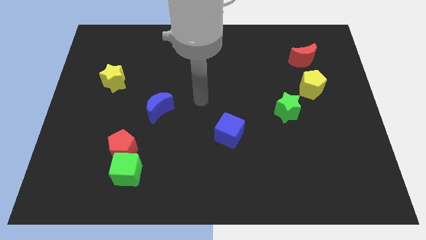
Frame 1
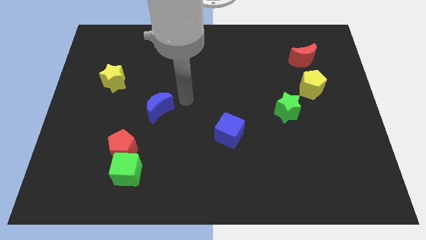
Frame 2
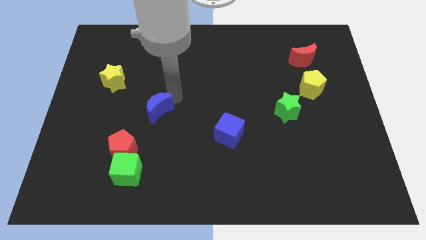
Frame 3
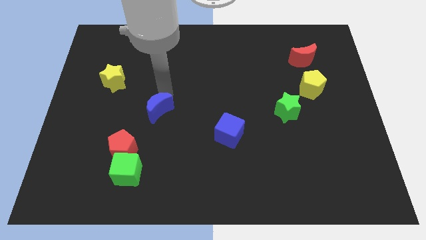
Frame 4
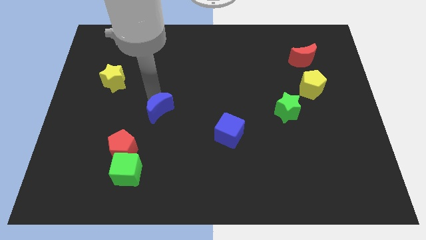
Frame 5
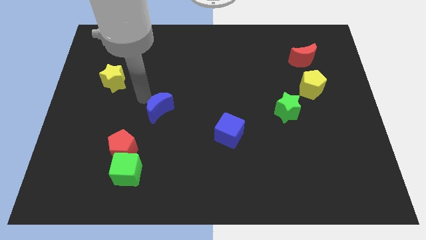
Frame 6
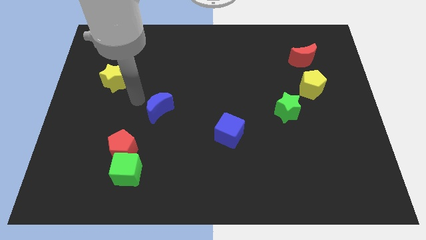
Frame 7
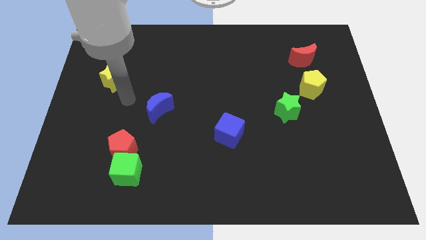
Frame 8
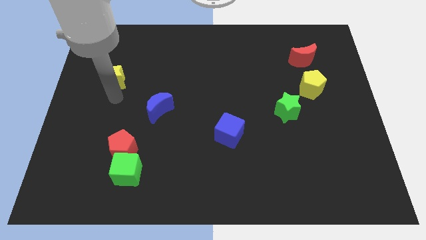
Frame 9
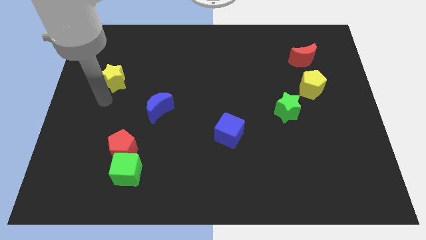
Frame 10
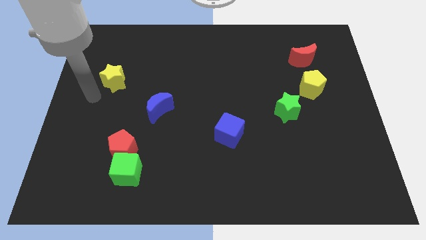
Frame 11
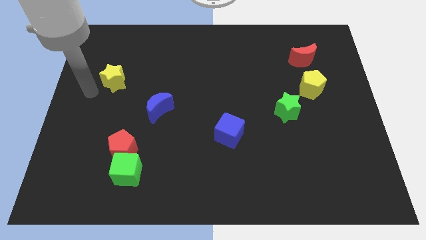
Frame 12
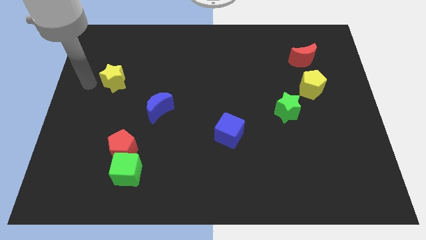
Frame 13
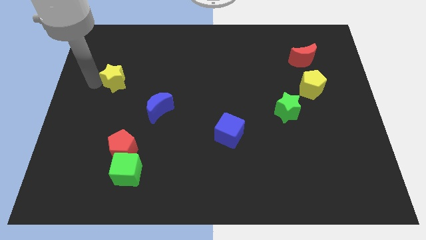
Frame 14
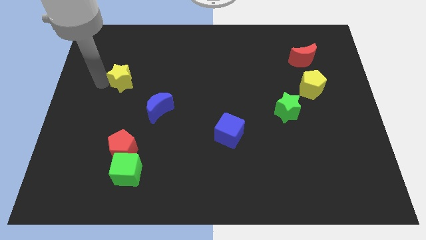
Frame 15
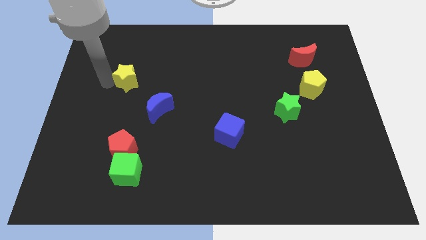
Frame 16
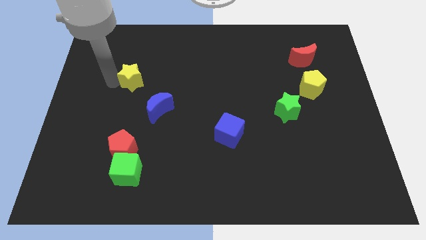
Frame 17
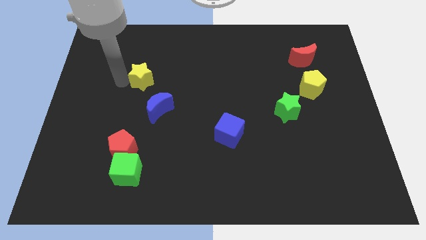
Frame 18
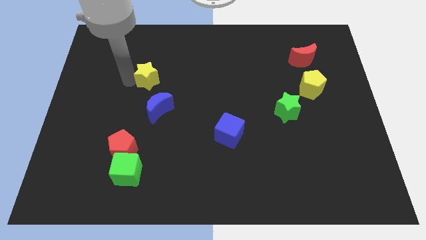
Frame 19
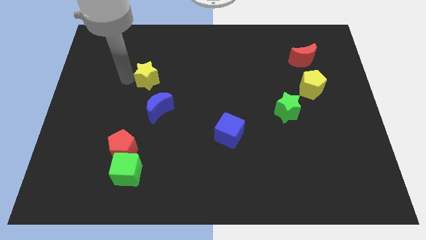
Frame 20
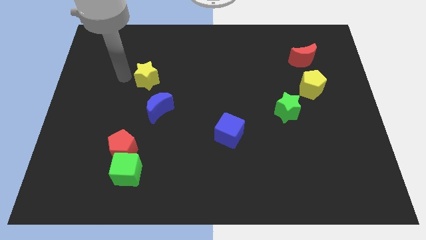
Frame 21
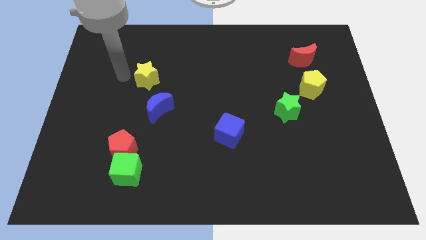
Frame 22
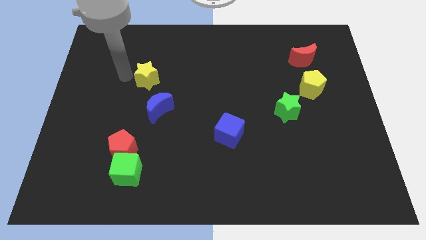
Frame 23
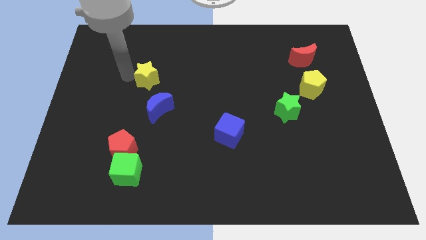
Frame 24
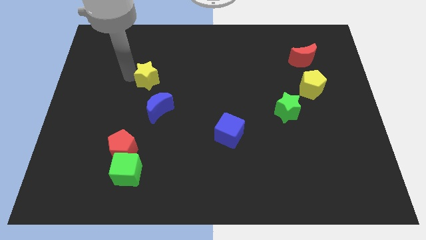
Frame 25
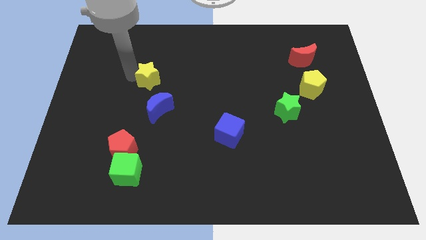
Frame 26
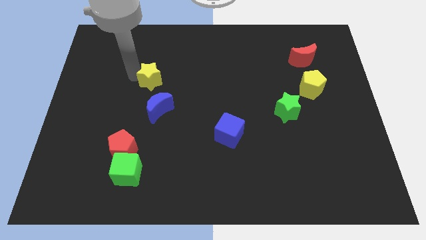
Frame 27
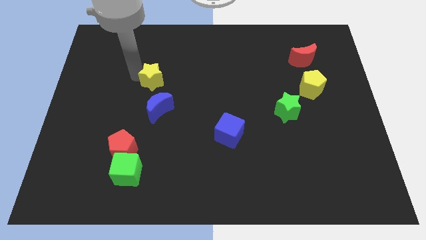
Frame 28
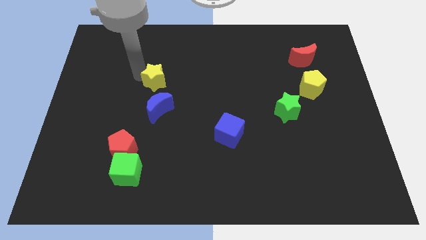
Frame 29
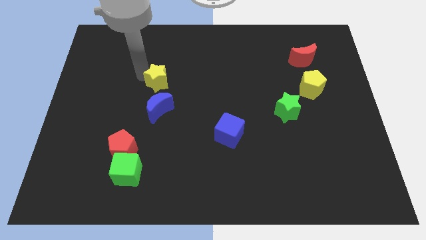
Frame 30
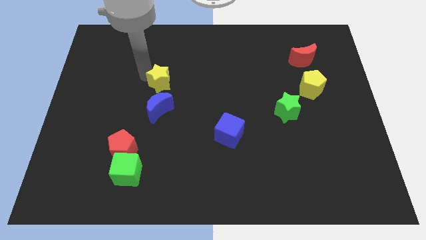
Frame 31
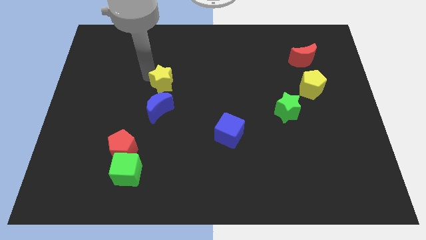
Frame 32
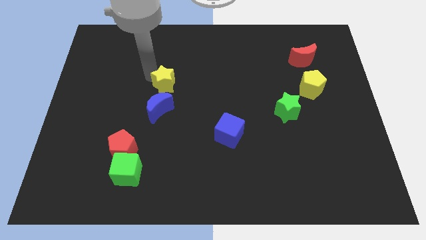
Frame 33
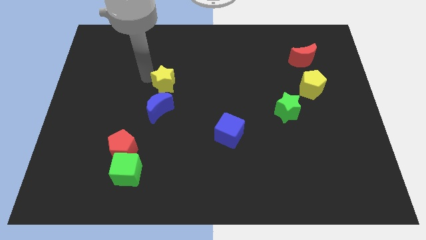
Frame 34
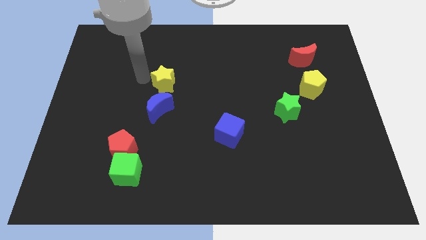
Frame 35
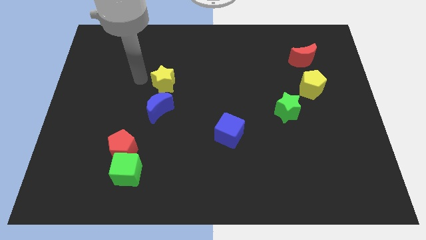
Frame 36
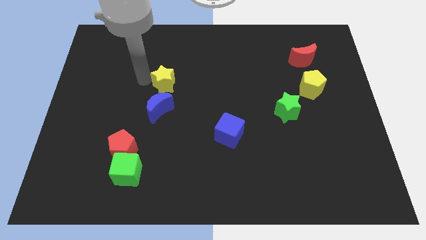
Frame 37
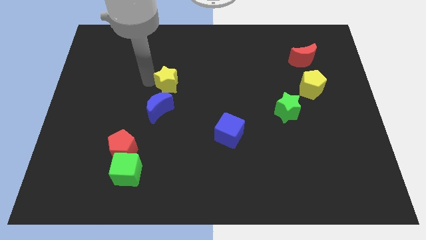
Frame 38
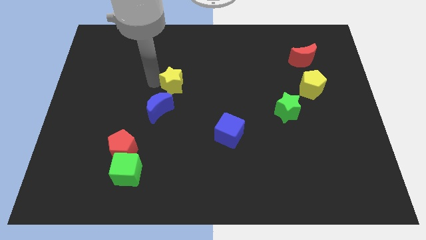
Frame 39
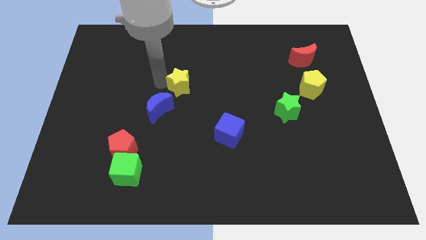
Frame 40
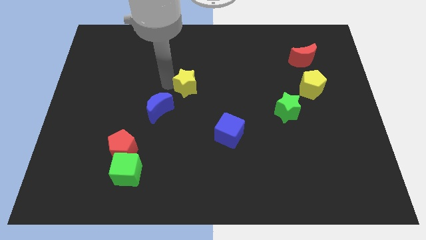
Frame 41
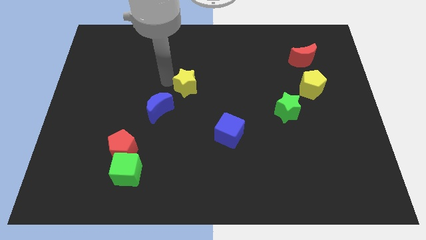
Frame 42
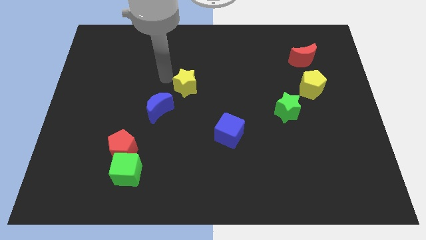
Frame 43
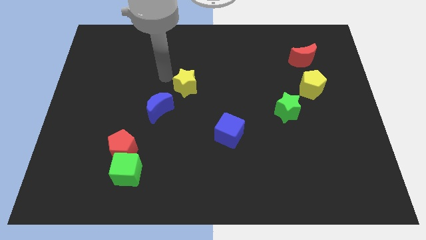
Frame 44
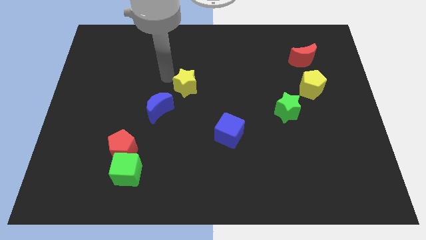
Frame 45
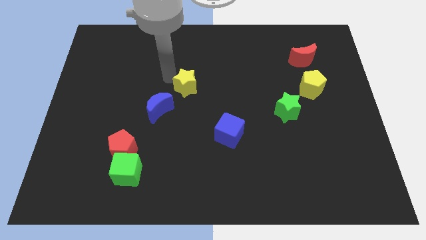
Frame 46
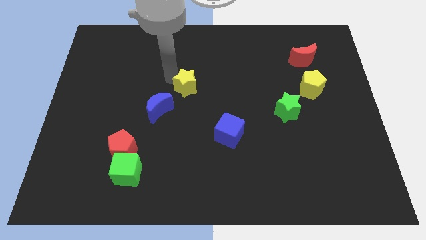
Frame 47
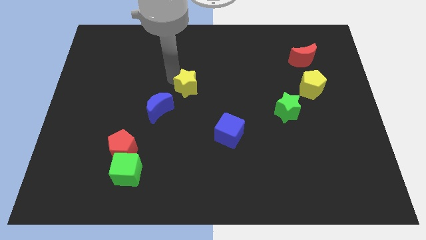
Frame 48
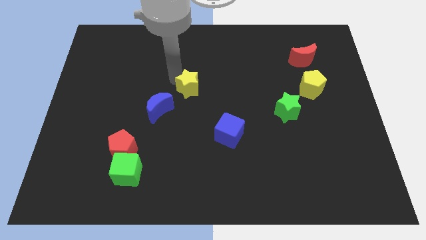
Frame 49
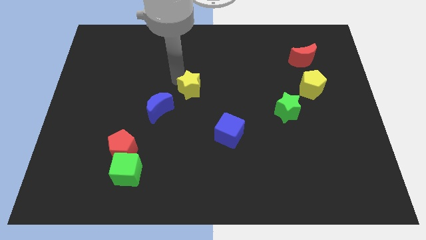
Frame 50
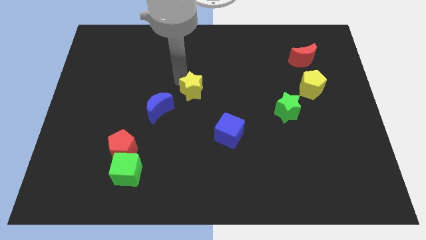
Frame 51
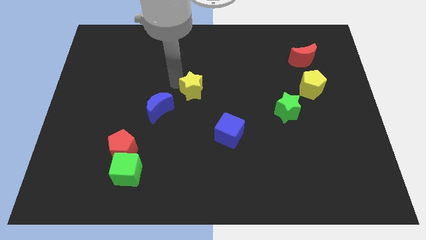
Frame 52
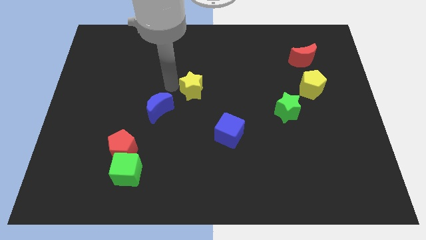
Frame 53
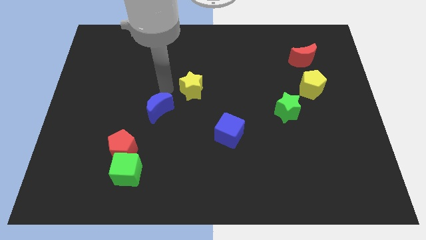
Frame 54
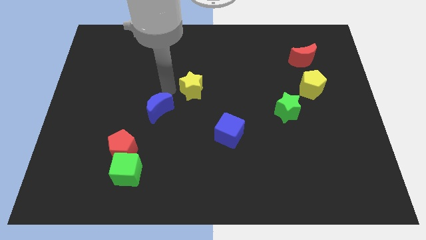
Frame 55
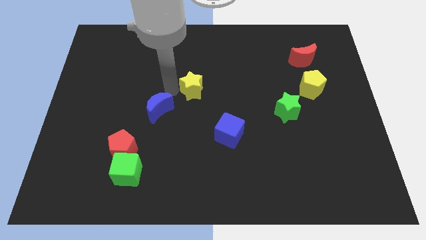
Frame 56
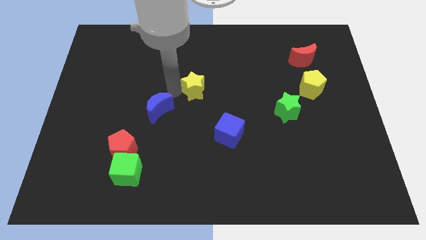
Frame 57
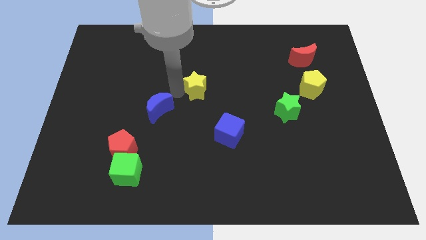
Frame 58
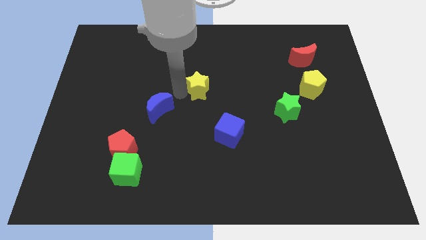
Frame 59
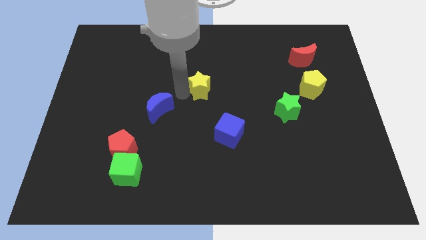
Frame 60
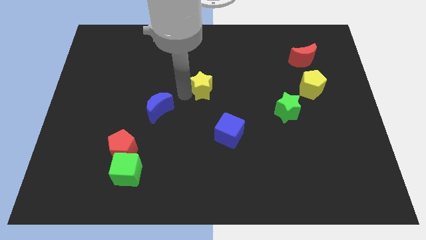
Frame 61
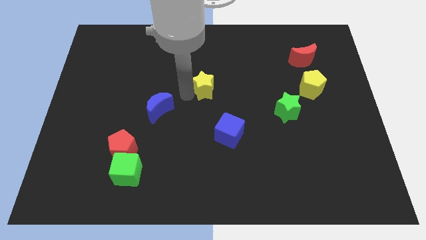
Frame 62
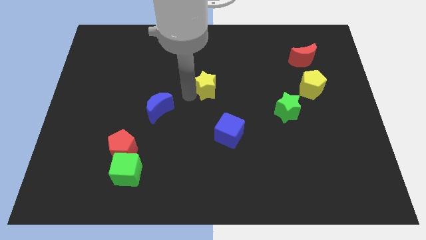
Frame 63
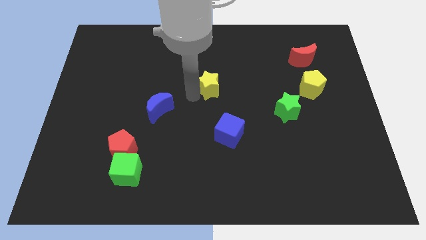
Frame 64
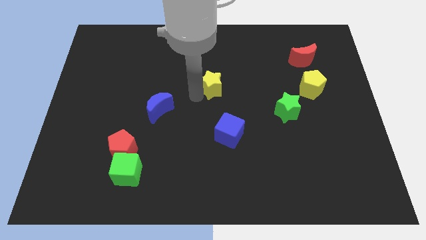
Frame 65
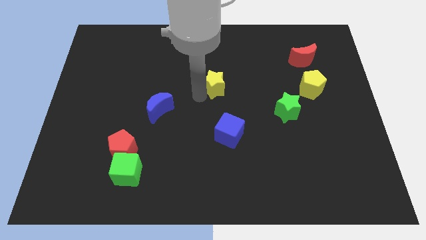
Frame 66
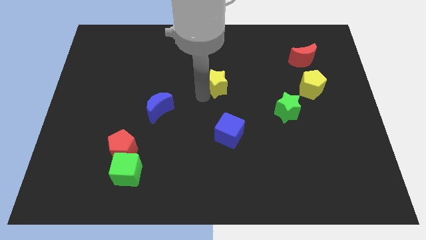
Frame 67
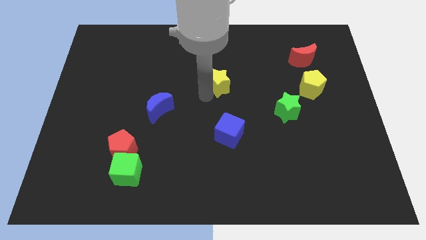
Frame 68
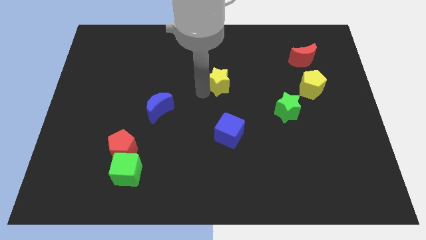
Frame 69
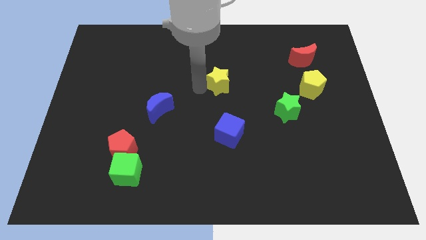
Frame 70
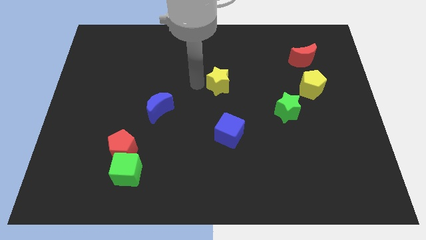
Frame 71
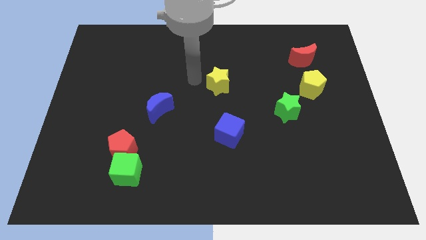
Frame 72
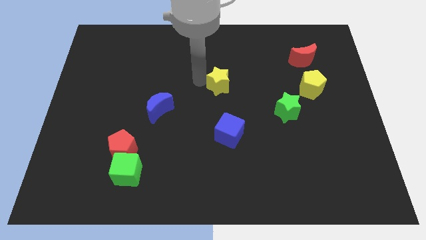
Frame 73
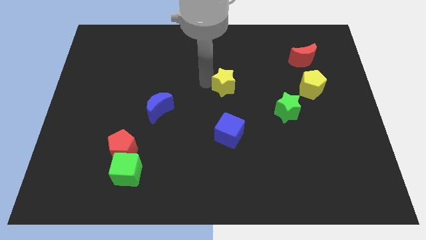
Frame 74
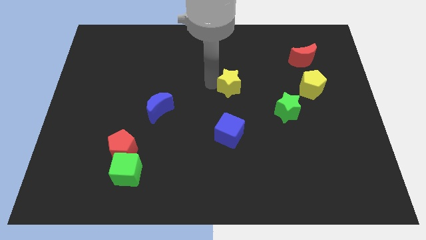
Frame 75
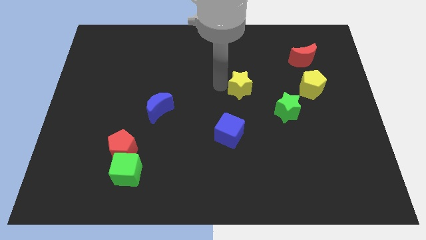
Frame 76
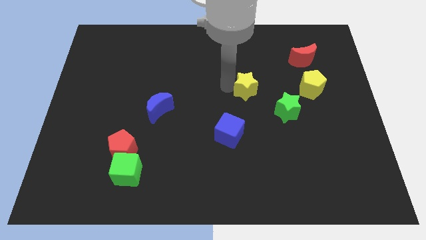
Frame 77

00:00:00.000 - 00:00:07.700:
slide the yellow star diagonally up and to the left of the green star
